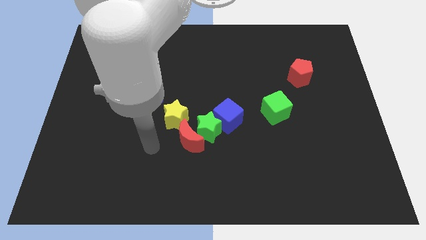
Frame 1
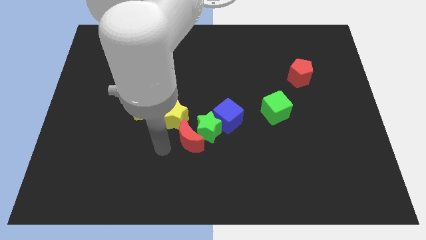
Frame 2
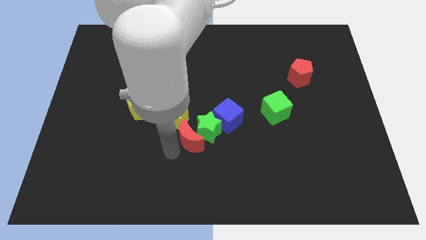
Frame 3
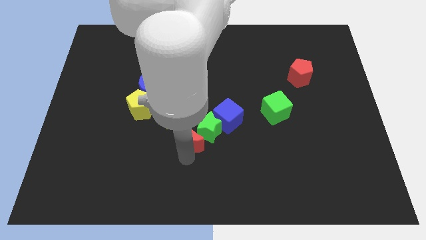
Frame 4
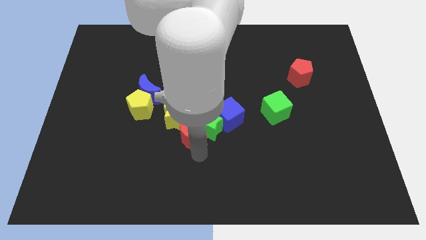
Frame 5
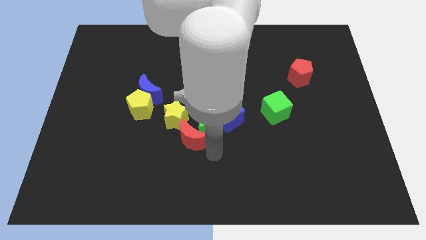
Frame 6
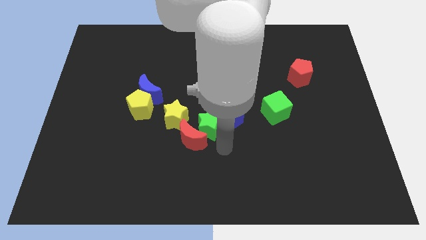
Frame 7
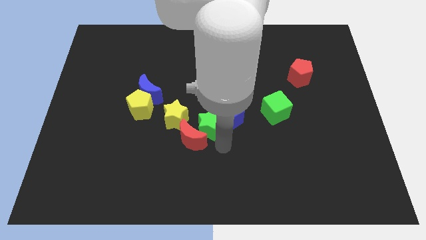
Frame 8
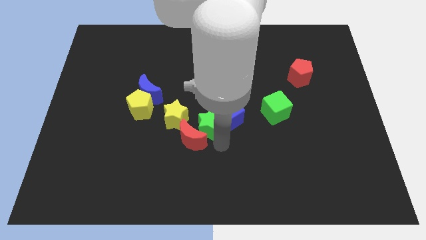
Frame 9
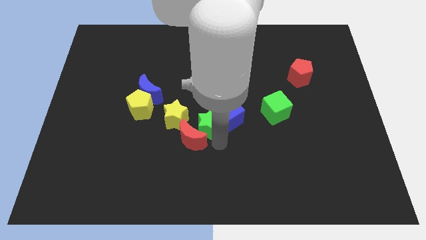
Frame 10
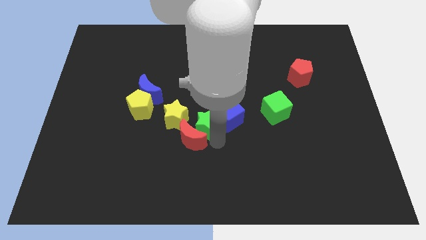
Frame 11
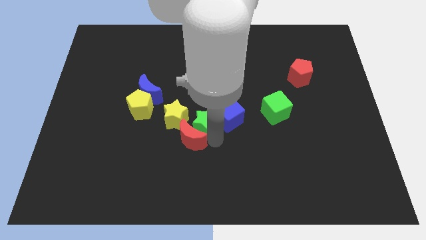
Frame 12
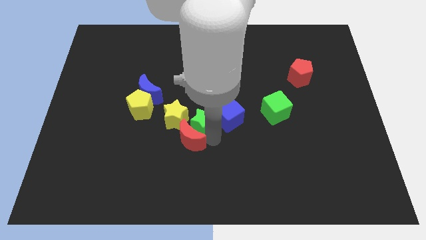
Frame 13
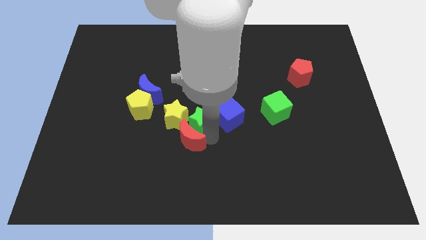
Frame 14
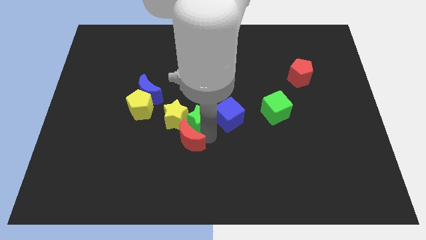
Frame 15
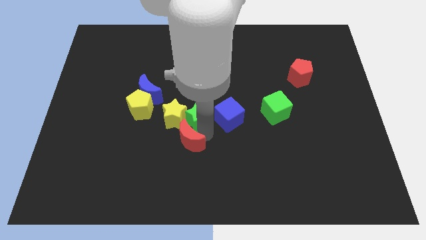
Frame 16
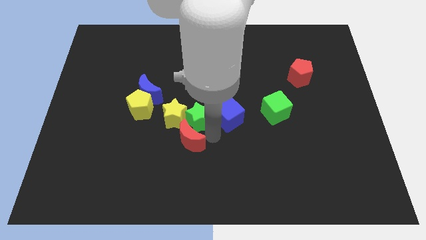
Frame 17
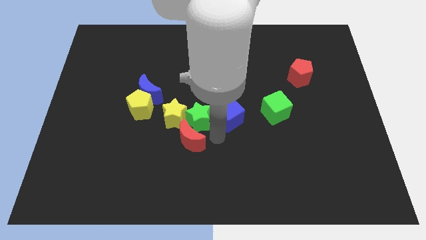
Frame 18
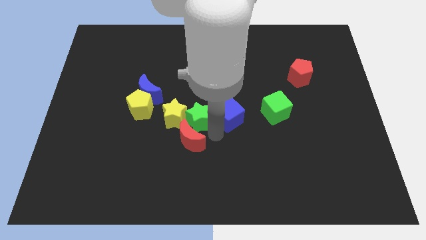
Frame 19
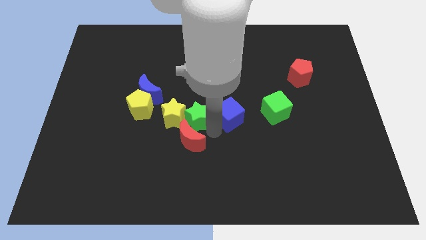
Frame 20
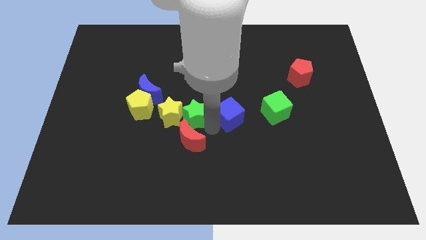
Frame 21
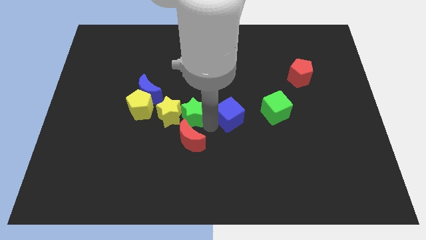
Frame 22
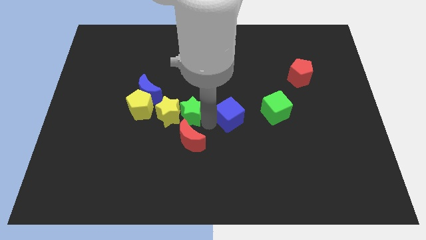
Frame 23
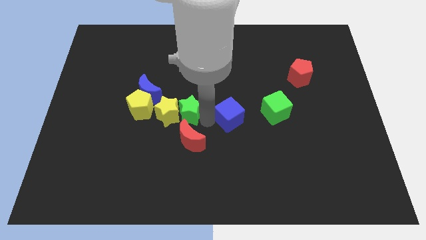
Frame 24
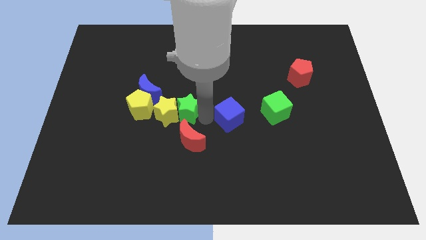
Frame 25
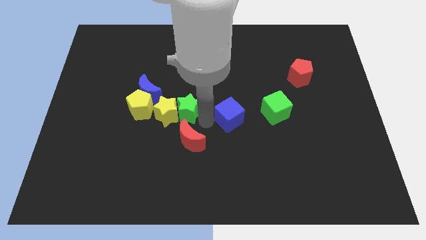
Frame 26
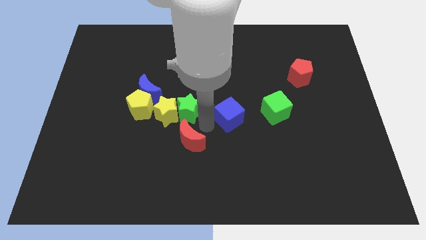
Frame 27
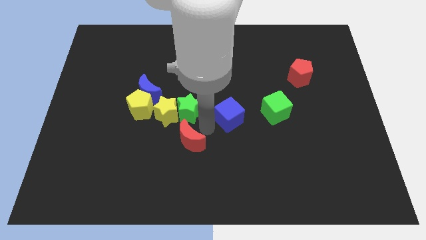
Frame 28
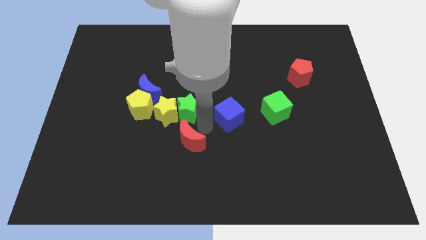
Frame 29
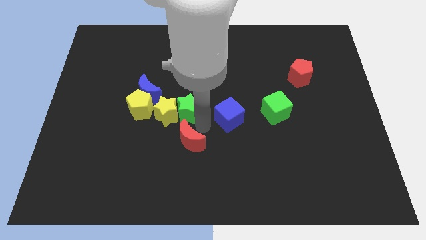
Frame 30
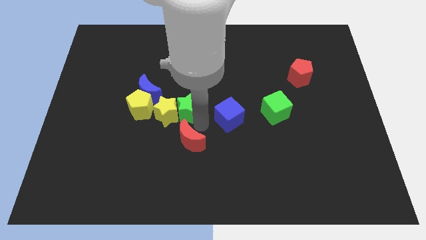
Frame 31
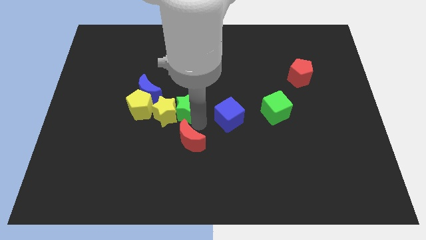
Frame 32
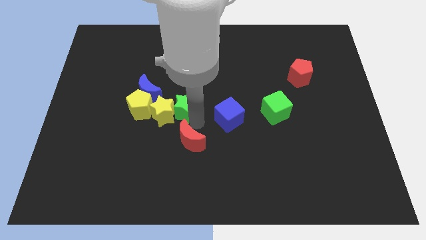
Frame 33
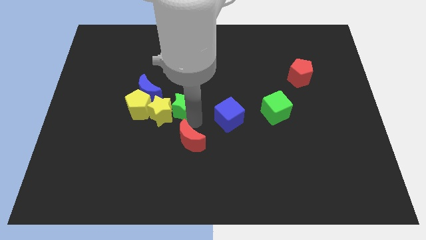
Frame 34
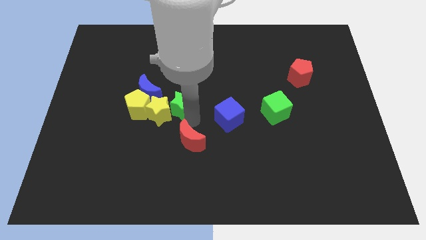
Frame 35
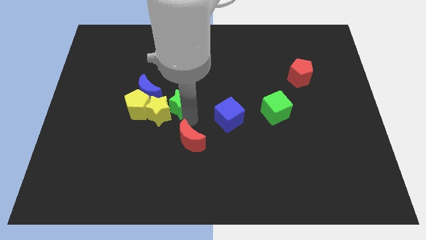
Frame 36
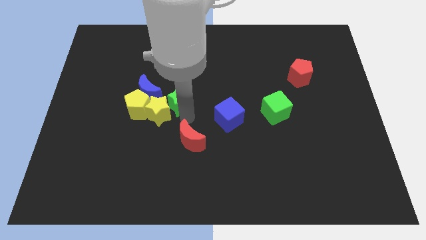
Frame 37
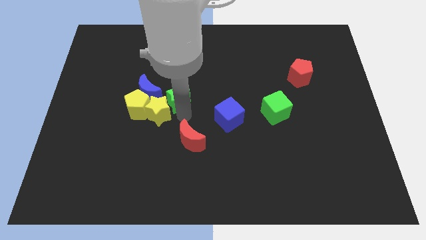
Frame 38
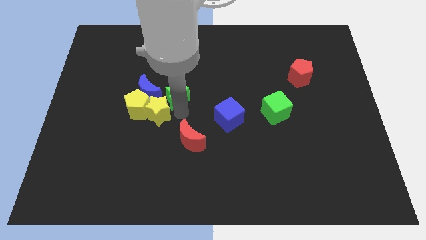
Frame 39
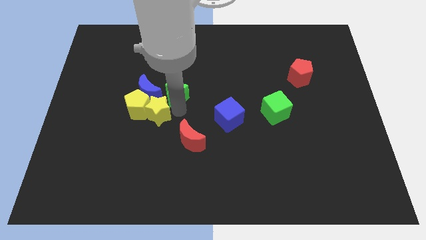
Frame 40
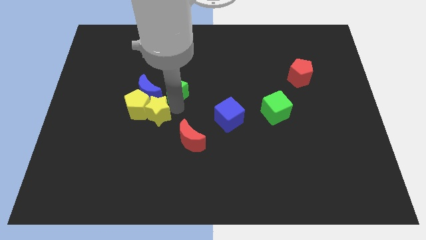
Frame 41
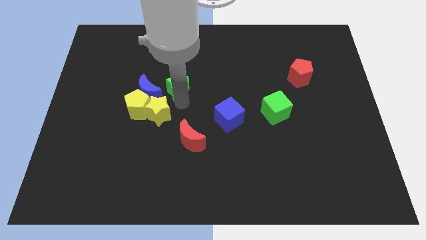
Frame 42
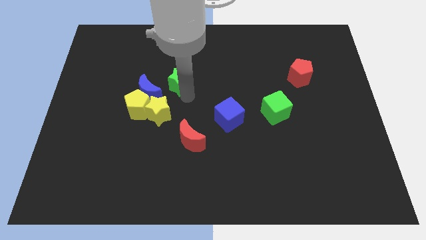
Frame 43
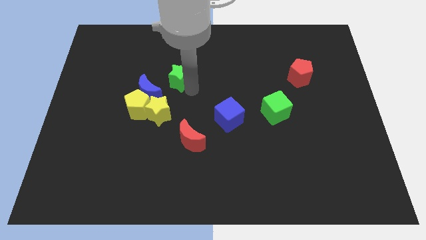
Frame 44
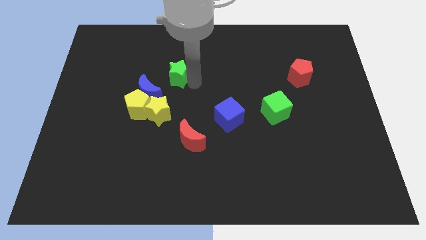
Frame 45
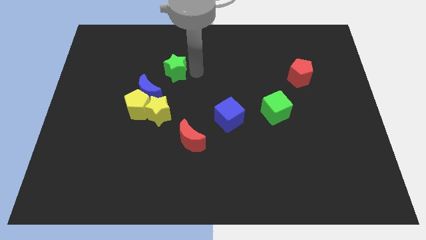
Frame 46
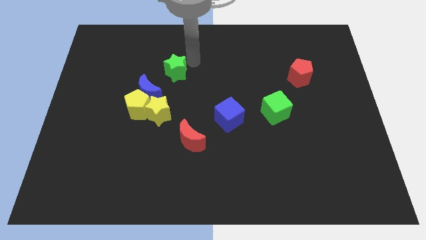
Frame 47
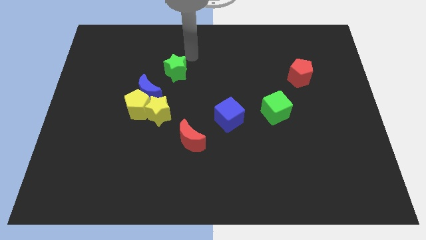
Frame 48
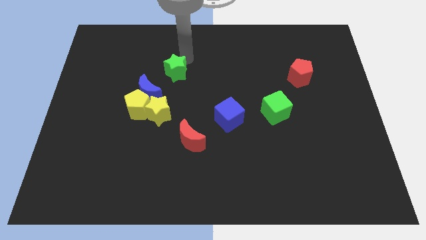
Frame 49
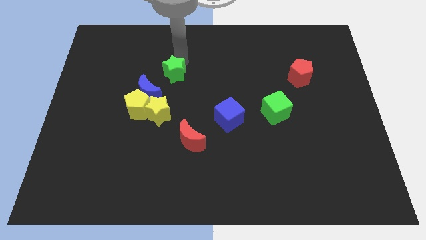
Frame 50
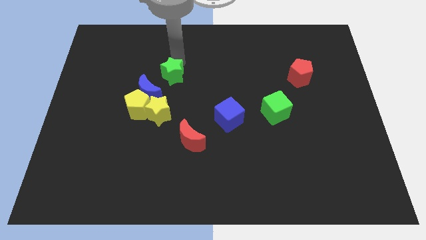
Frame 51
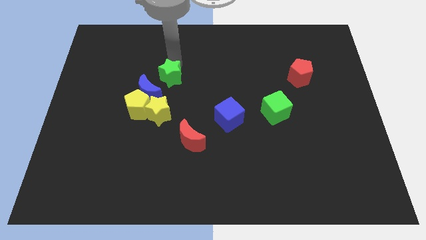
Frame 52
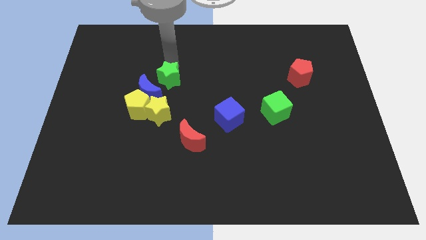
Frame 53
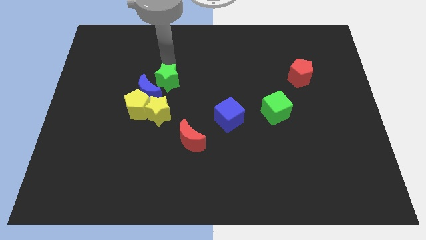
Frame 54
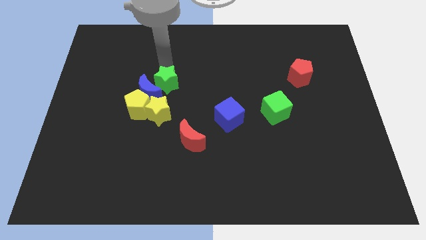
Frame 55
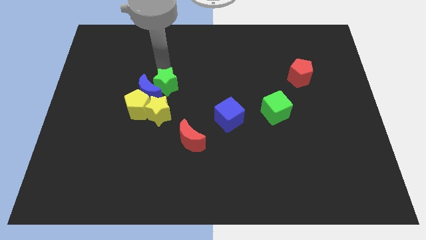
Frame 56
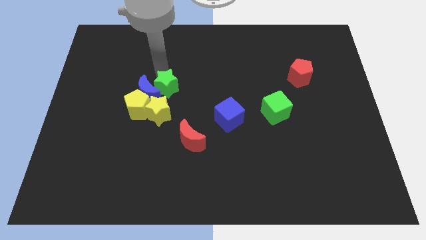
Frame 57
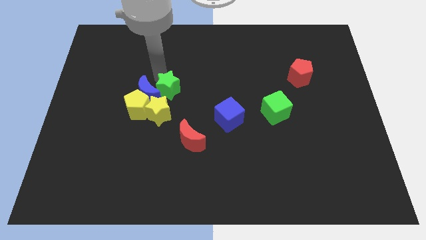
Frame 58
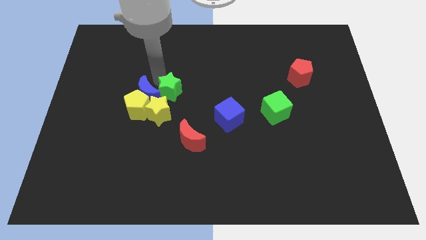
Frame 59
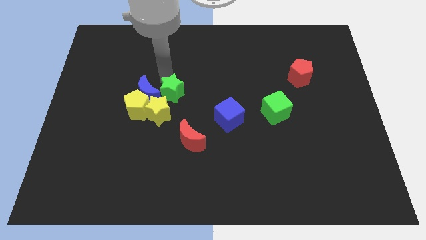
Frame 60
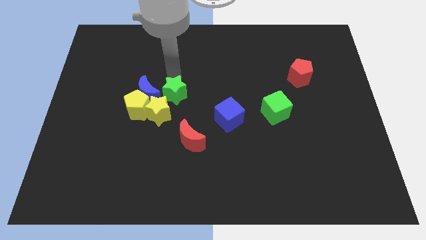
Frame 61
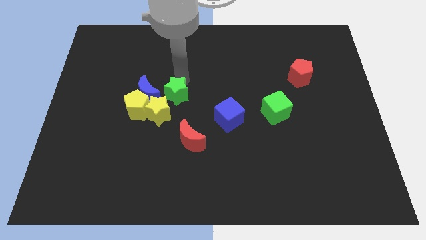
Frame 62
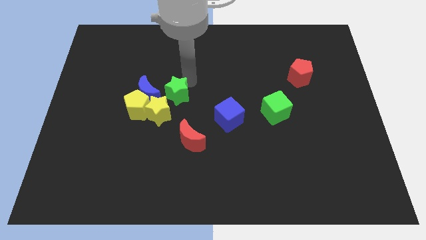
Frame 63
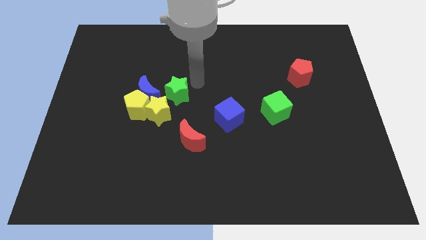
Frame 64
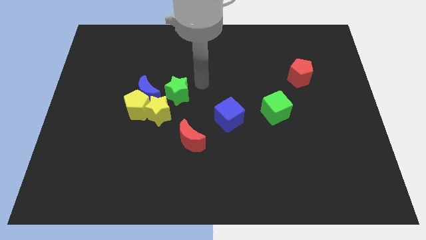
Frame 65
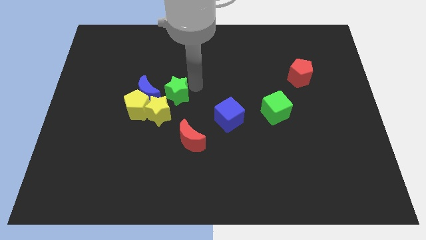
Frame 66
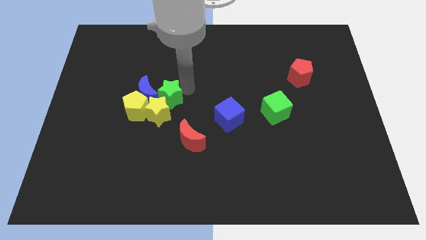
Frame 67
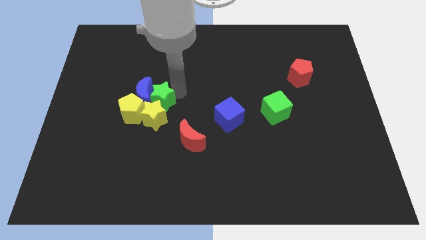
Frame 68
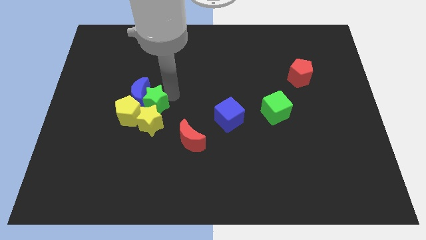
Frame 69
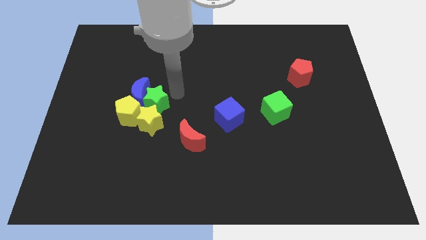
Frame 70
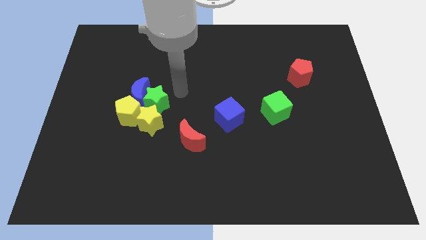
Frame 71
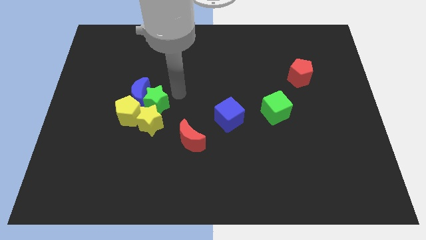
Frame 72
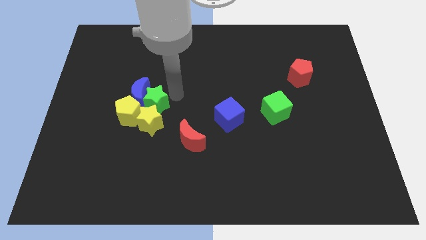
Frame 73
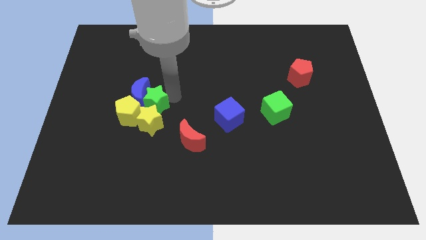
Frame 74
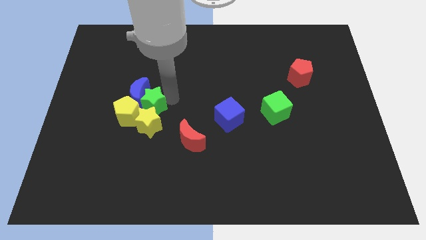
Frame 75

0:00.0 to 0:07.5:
slide the green star close to the yellow pentagon
